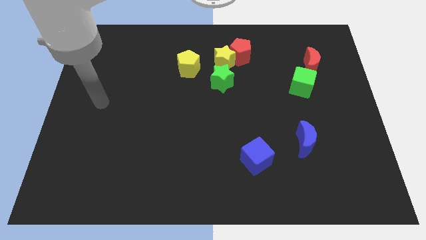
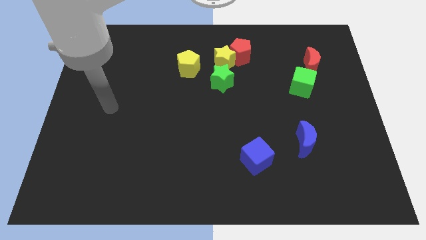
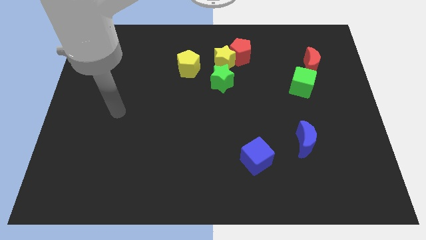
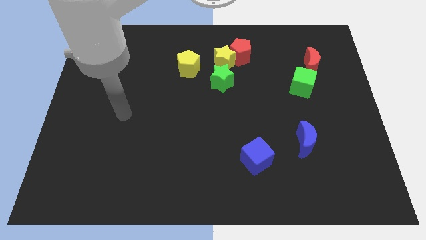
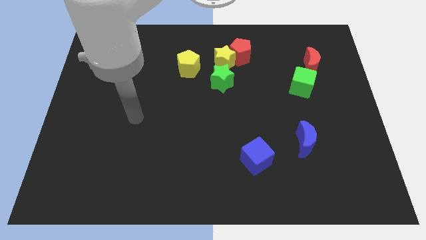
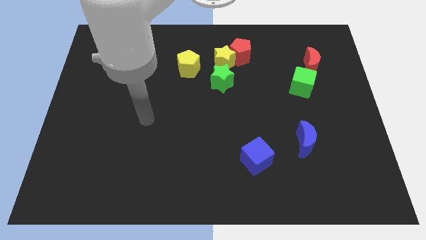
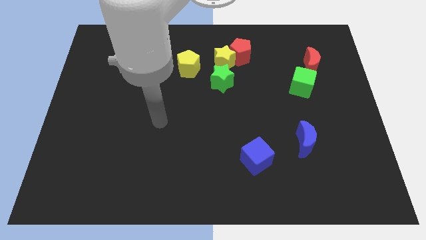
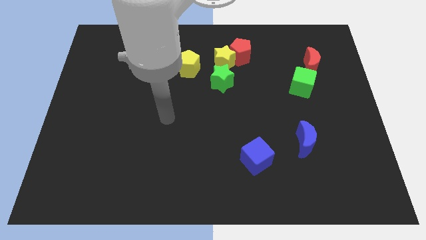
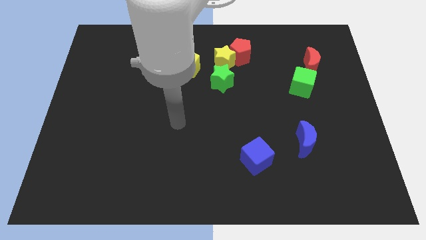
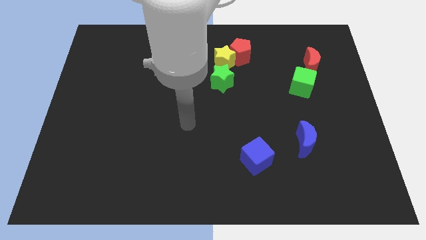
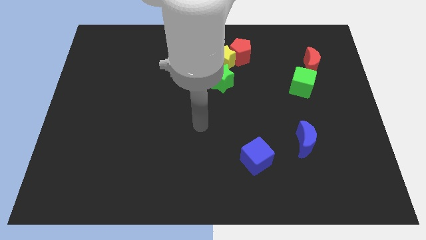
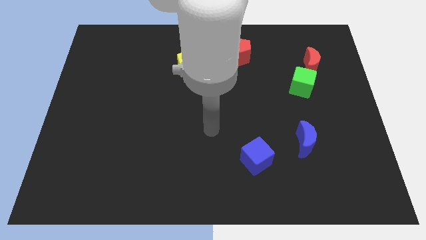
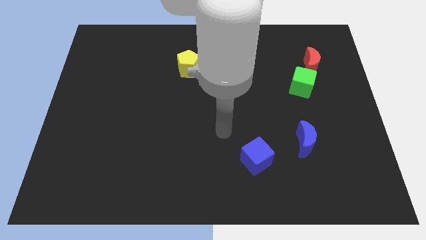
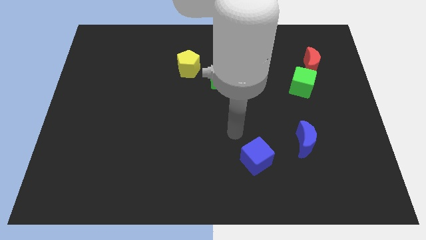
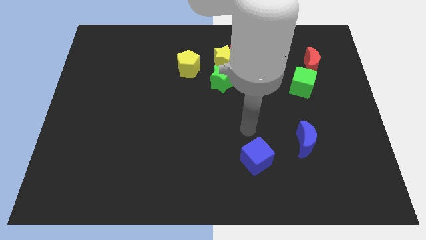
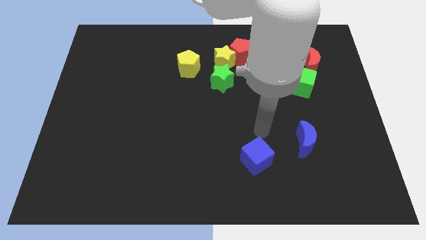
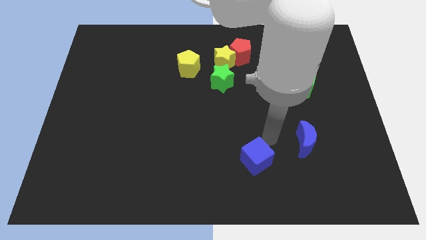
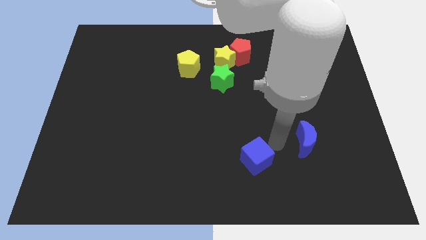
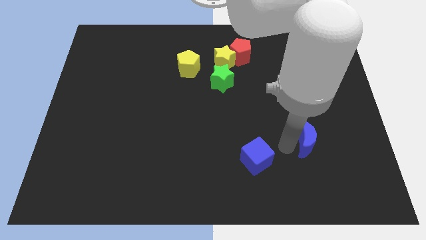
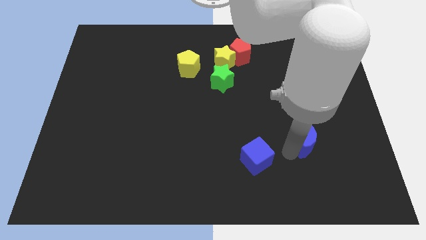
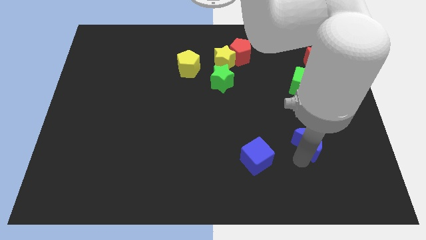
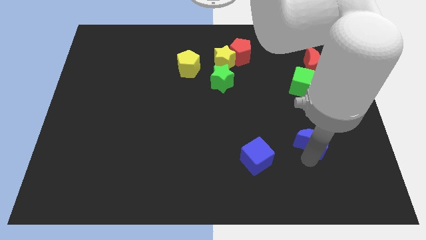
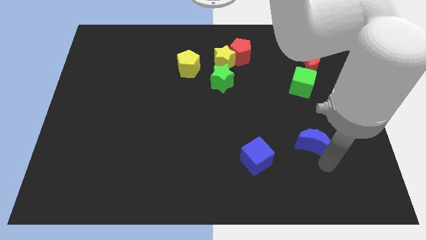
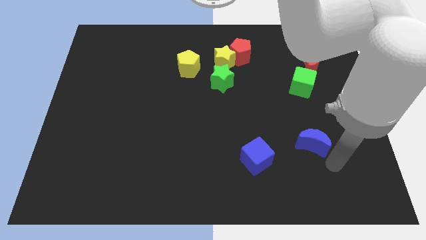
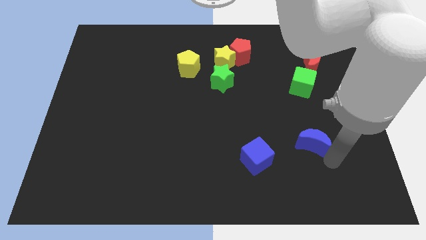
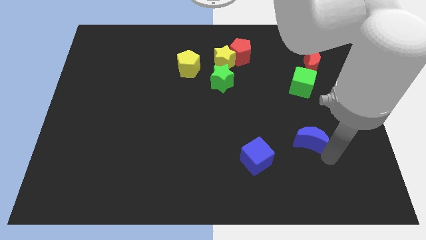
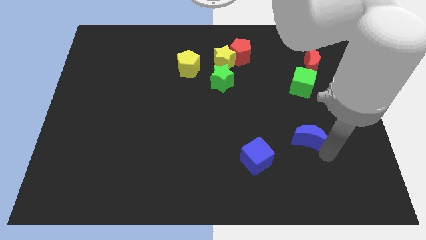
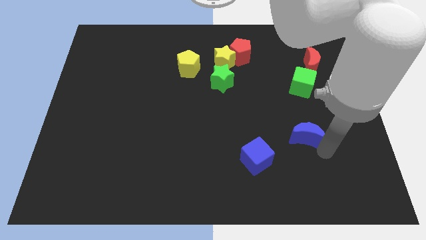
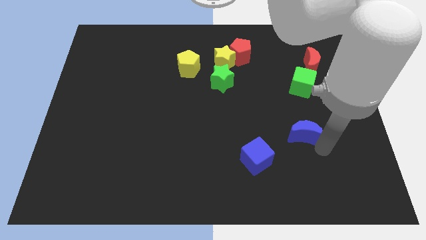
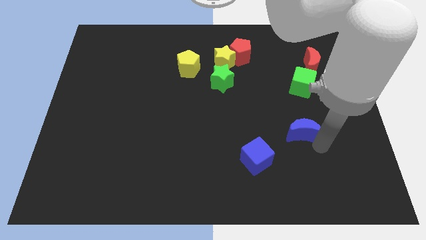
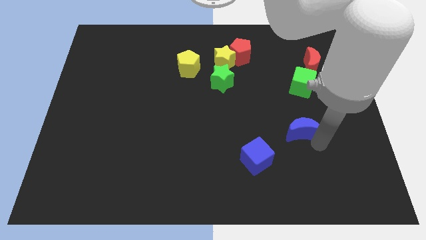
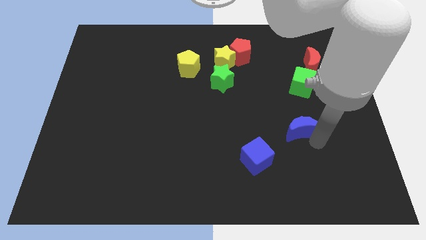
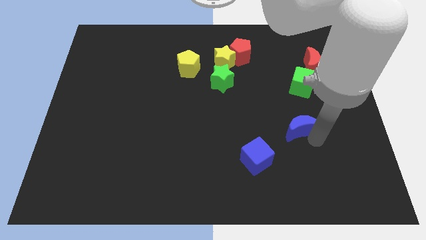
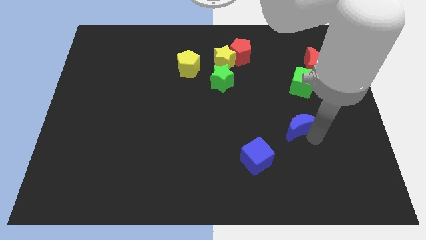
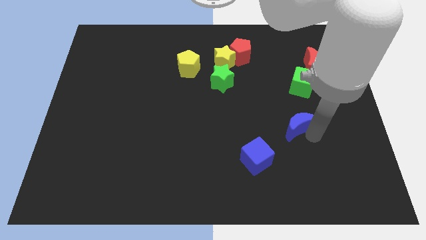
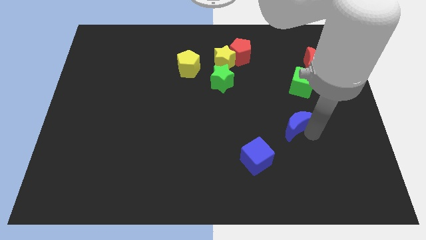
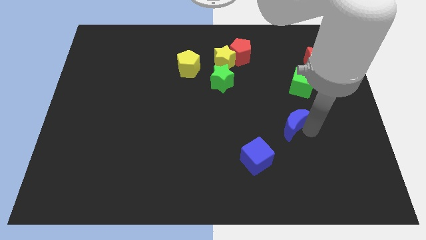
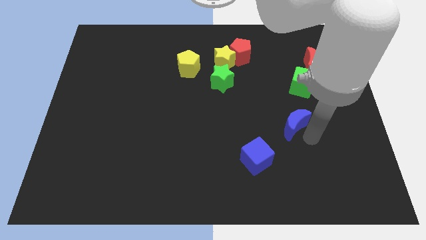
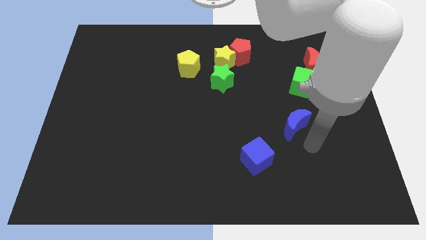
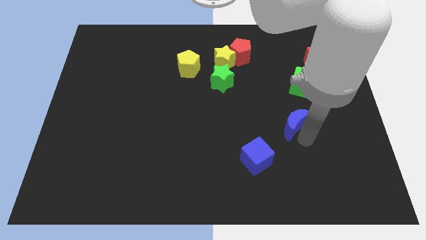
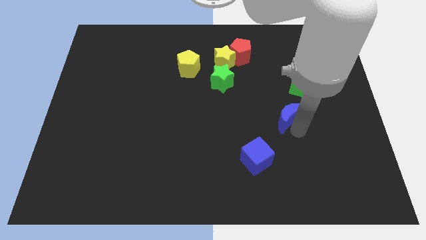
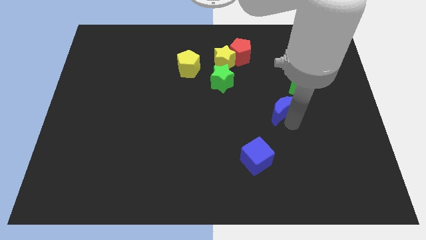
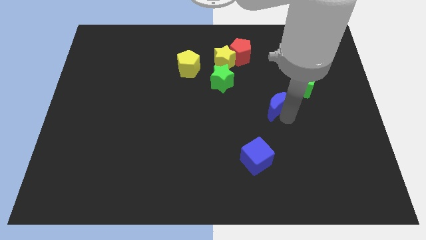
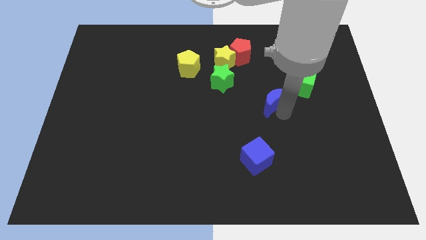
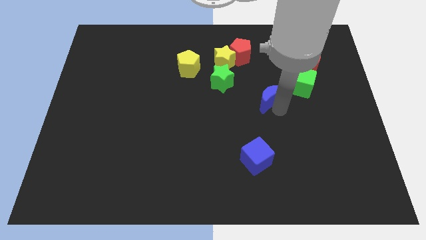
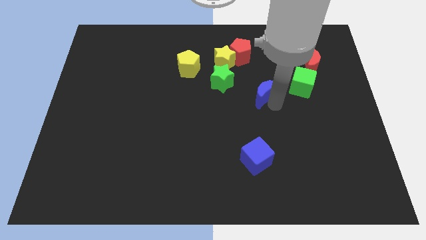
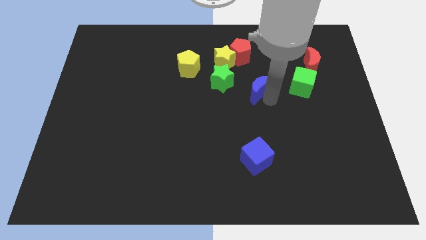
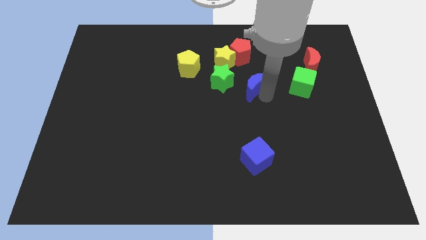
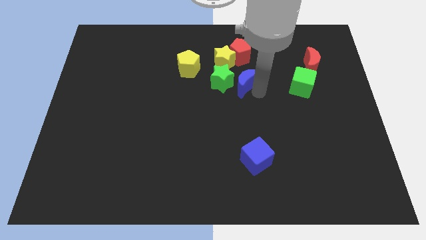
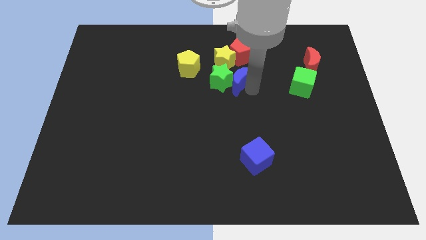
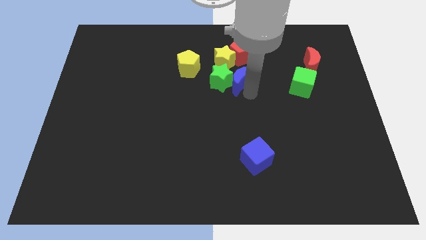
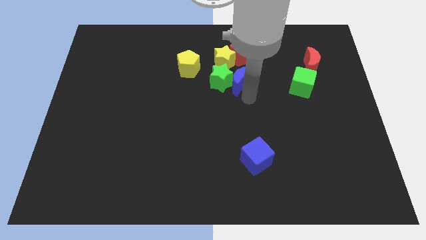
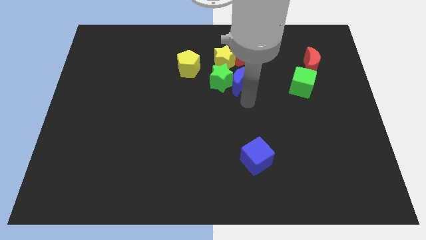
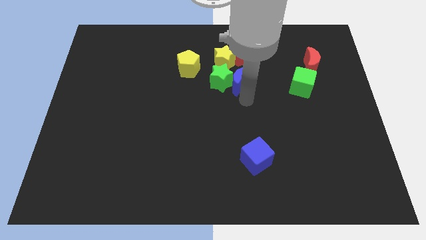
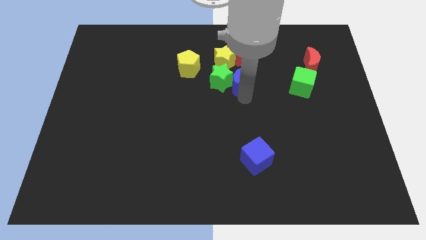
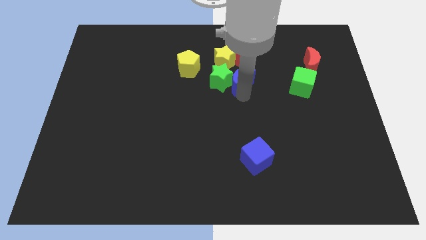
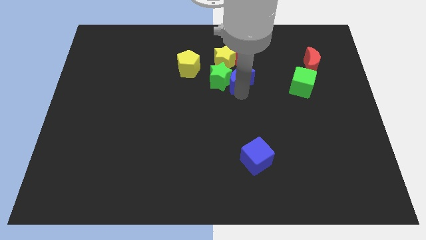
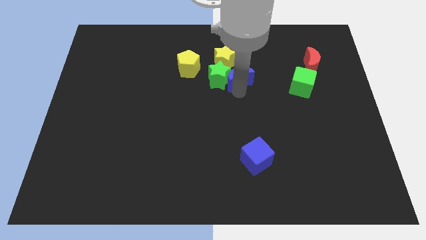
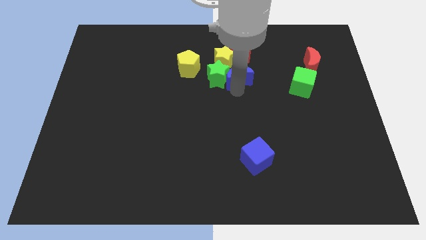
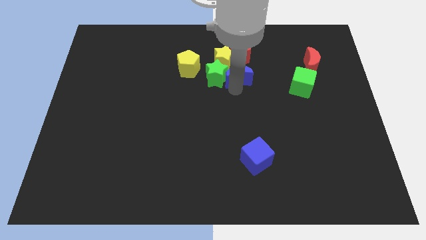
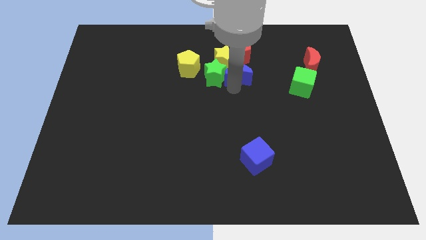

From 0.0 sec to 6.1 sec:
push the blue moon towards the yellow star

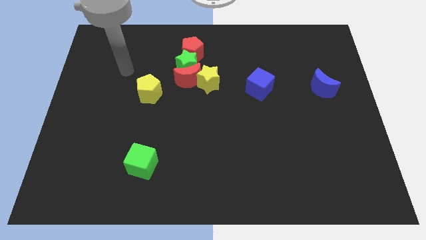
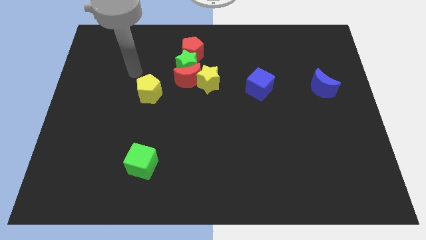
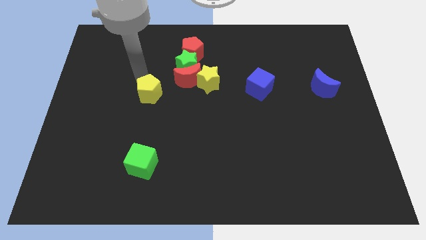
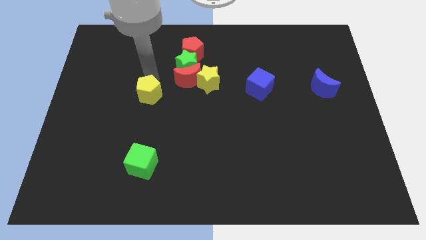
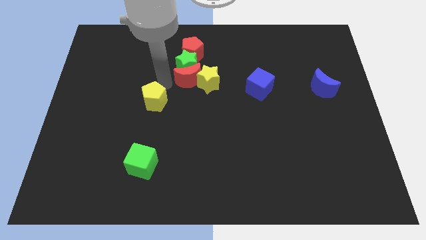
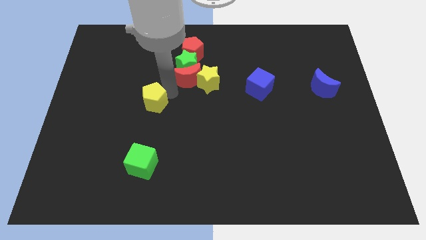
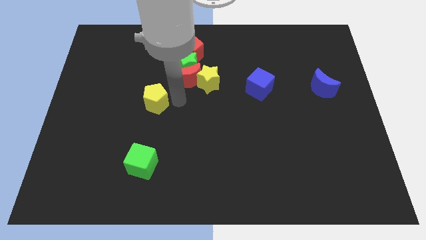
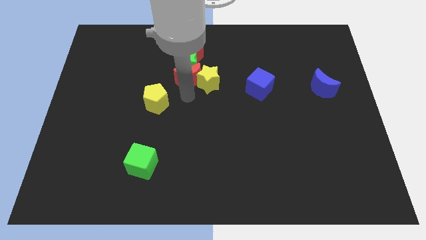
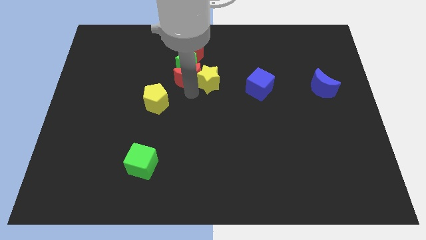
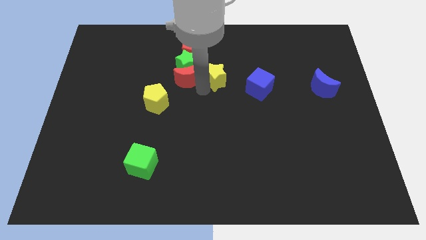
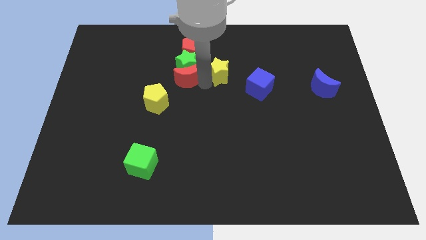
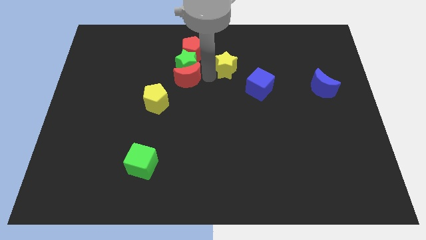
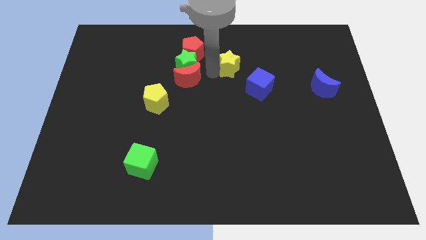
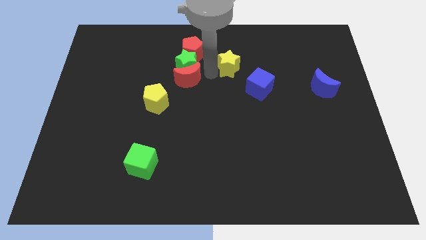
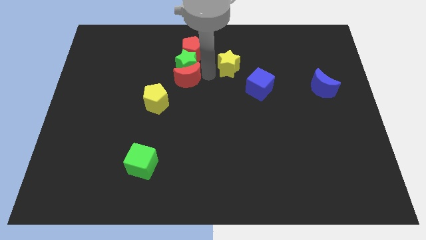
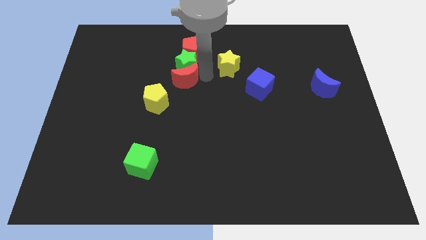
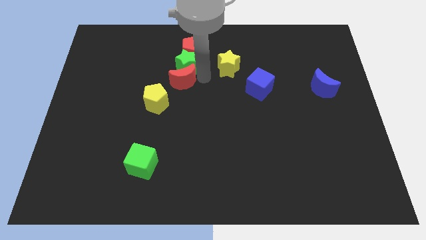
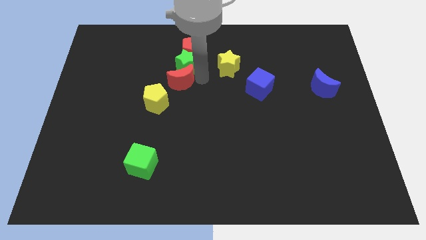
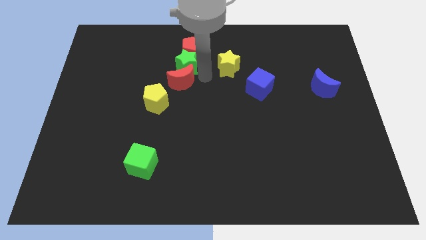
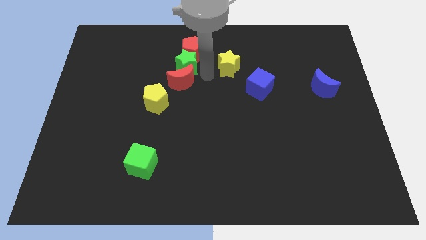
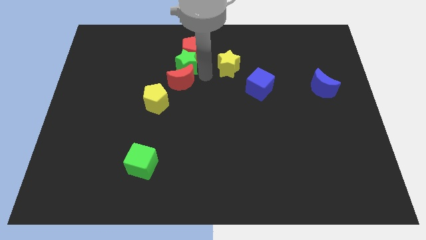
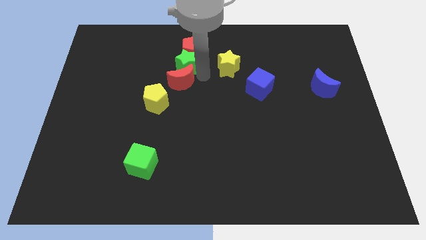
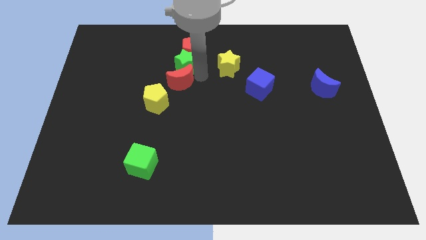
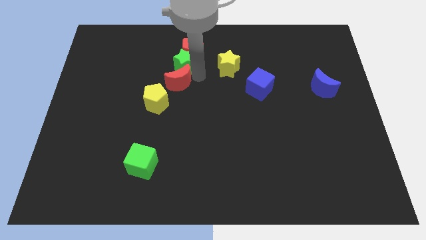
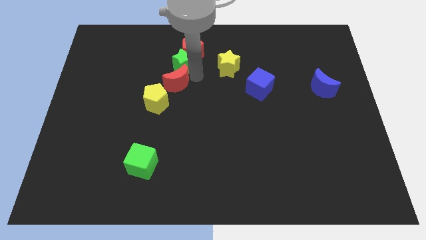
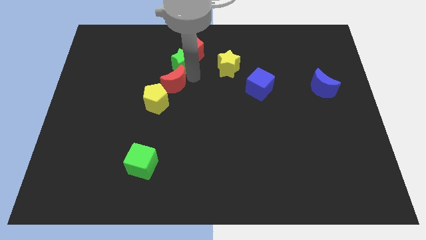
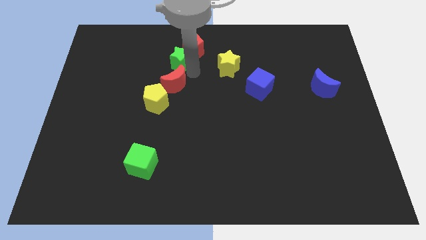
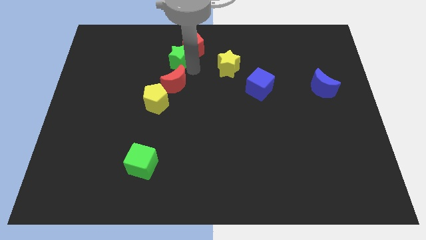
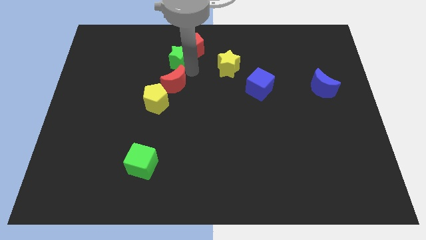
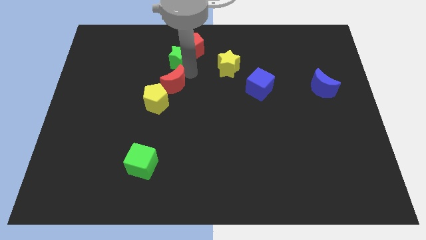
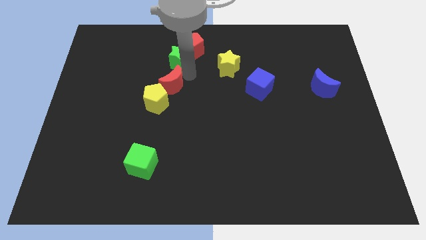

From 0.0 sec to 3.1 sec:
put the red moon towards the yellow pentagon
